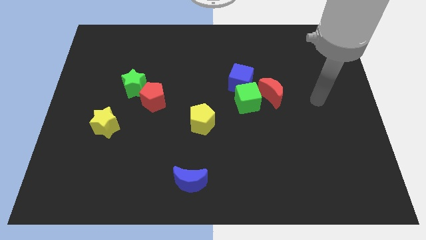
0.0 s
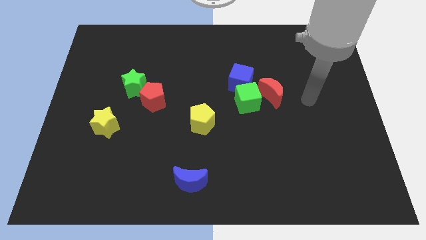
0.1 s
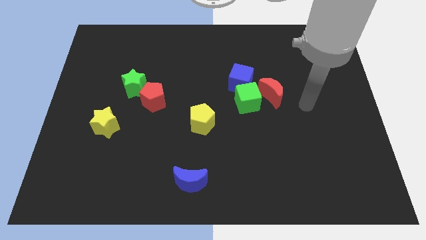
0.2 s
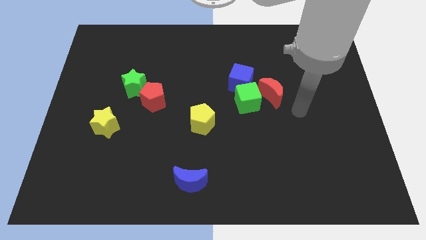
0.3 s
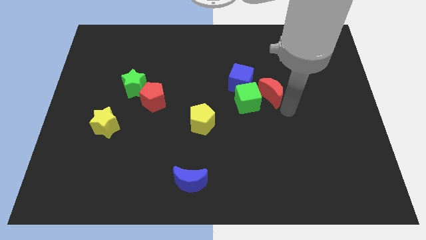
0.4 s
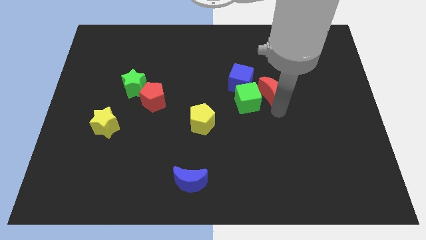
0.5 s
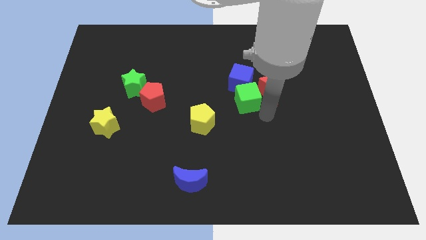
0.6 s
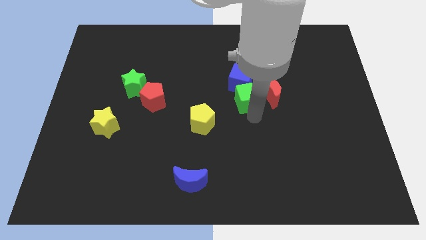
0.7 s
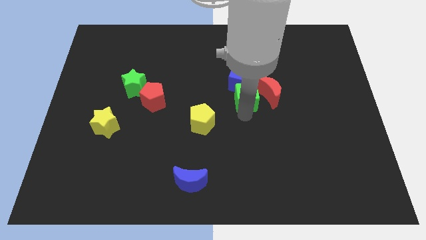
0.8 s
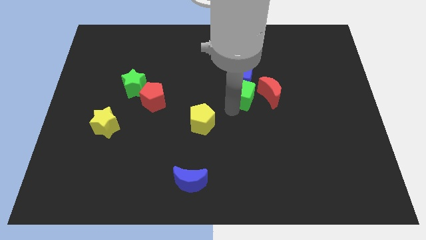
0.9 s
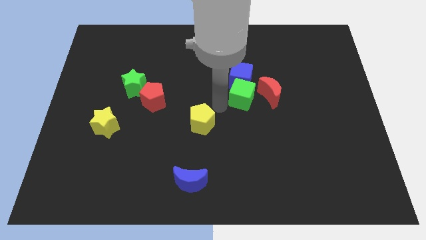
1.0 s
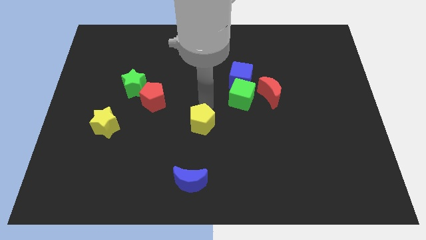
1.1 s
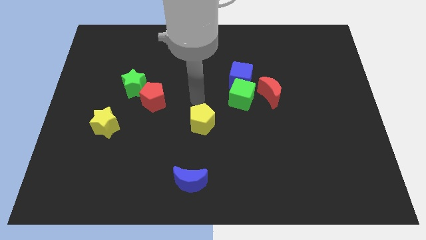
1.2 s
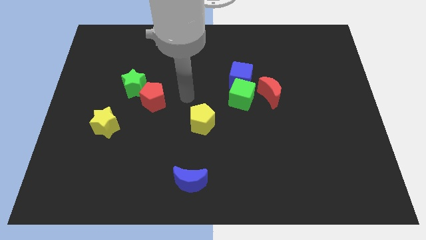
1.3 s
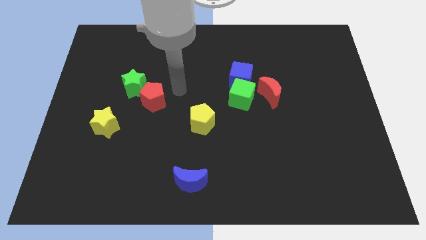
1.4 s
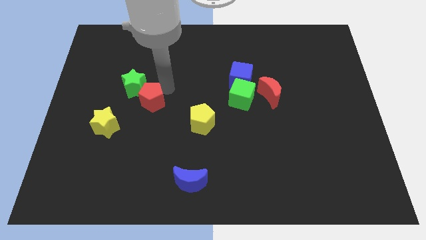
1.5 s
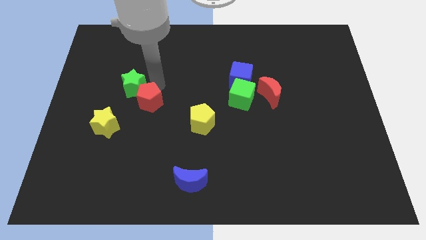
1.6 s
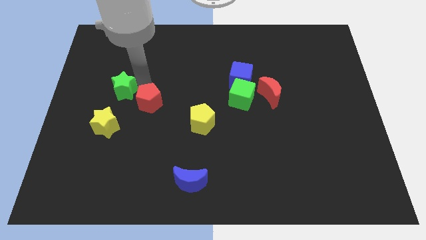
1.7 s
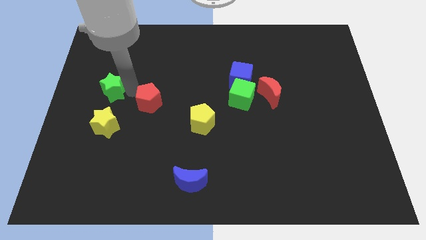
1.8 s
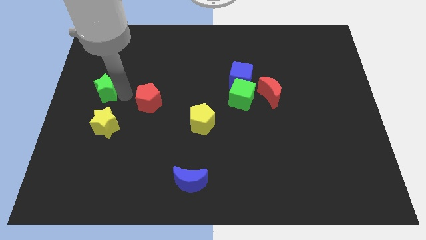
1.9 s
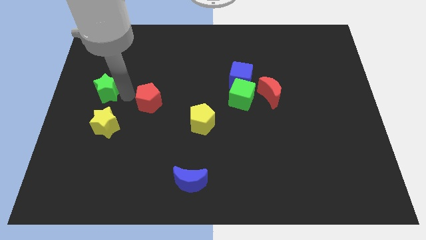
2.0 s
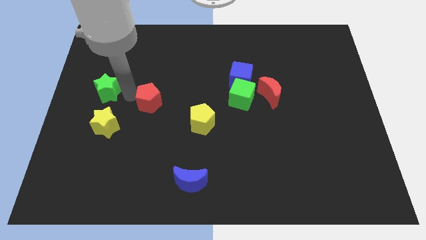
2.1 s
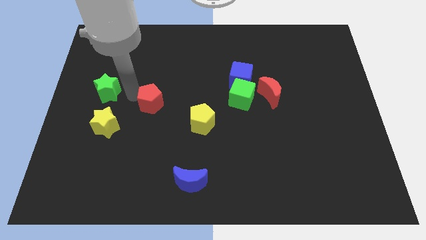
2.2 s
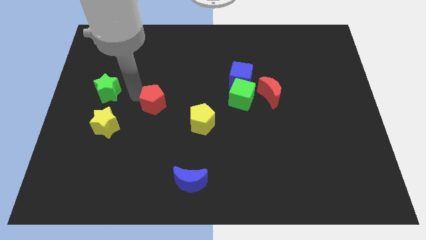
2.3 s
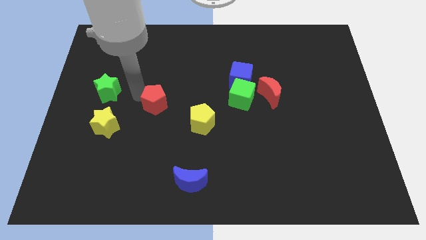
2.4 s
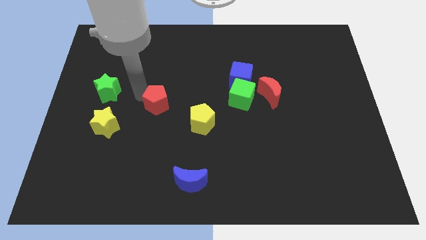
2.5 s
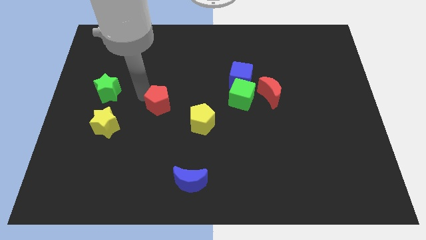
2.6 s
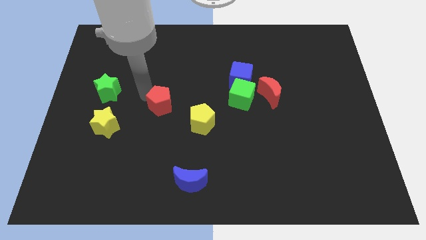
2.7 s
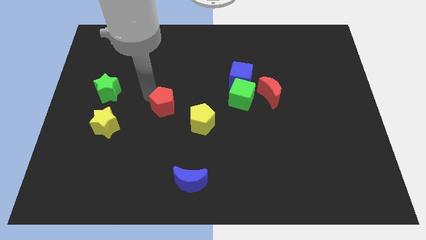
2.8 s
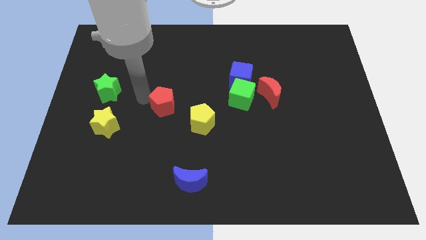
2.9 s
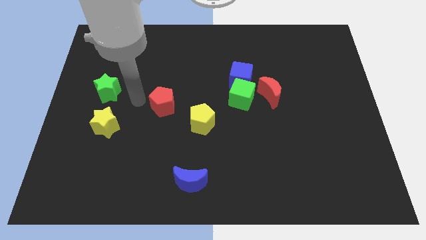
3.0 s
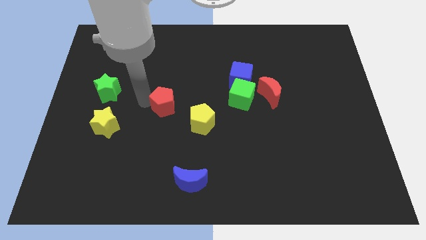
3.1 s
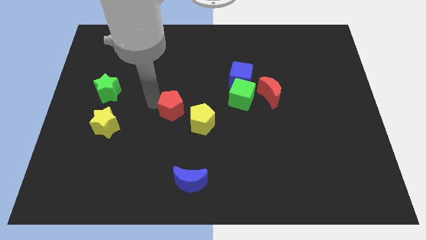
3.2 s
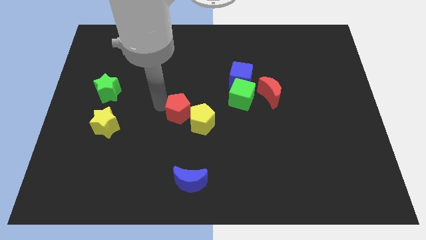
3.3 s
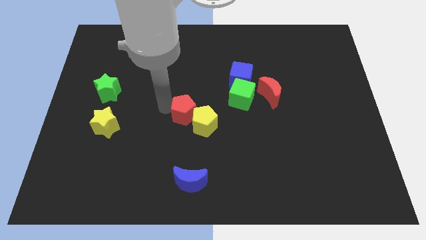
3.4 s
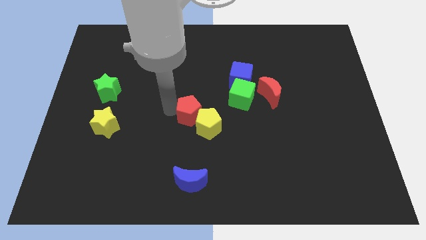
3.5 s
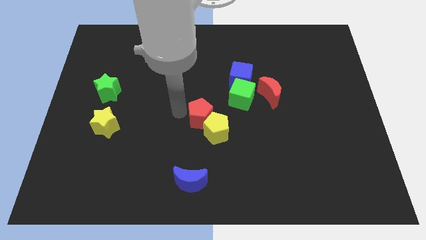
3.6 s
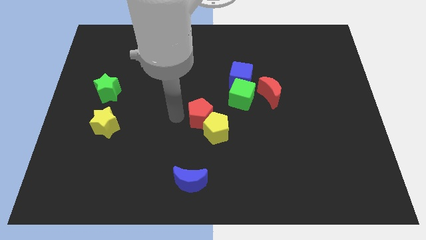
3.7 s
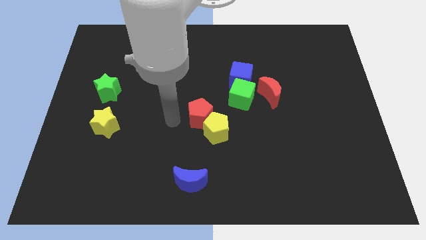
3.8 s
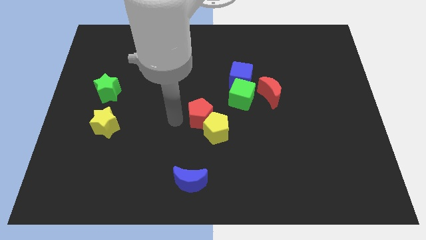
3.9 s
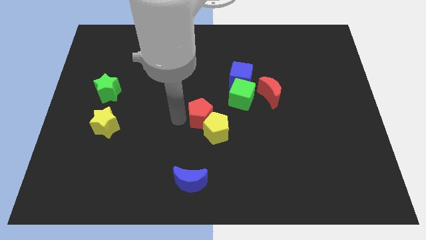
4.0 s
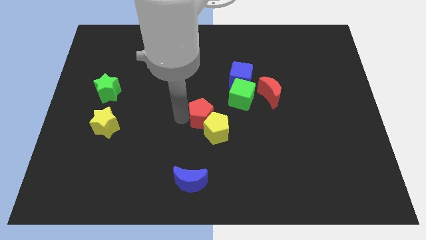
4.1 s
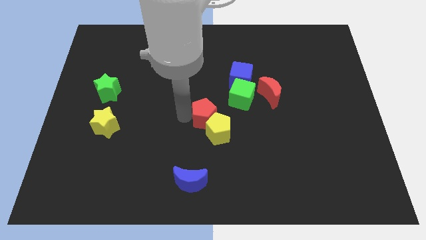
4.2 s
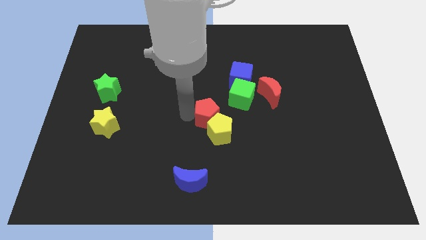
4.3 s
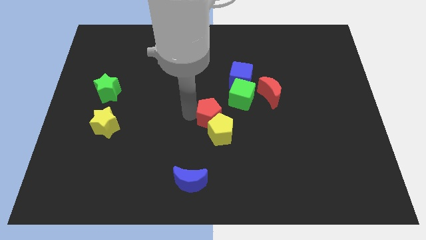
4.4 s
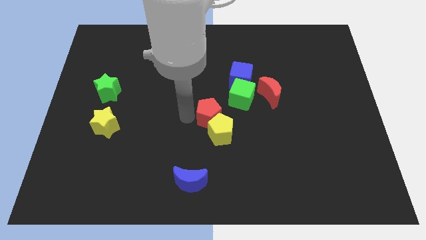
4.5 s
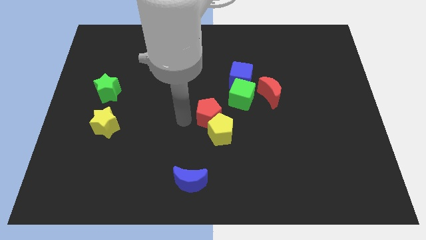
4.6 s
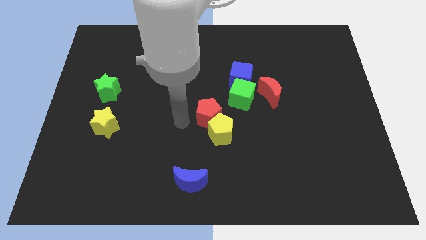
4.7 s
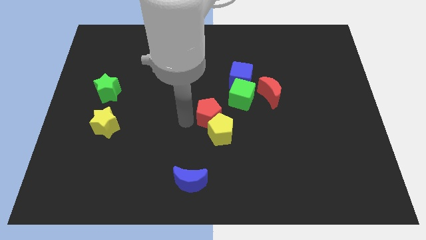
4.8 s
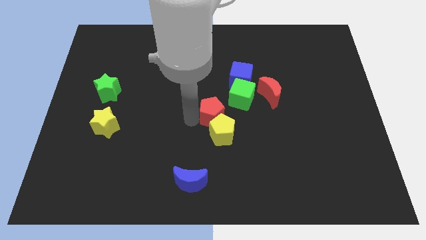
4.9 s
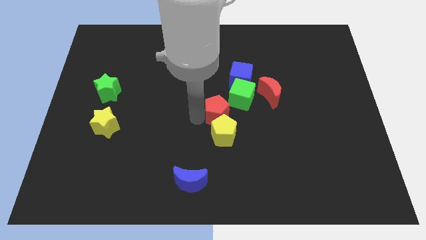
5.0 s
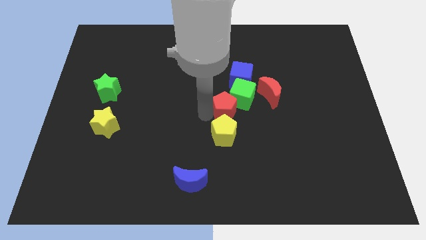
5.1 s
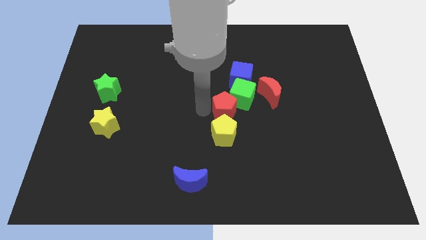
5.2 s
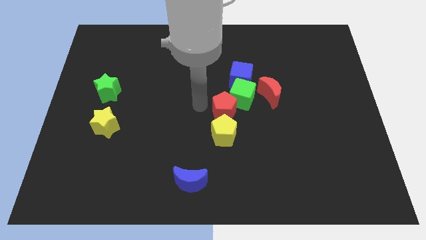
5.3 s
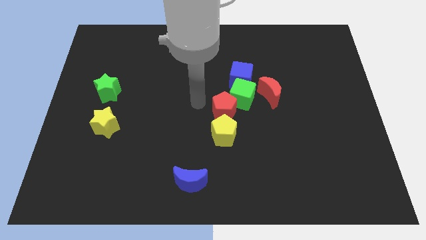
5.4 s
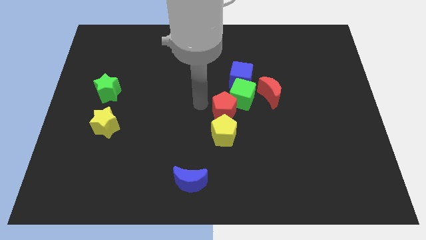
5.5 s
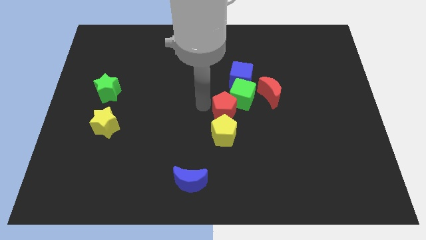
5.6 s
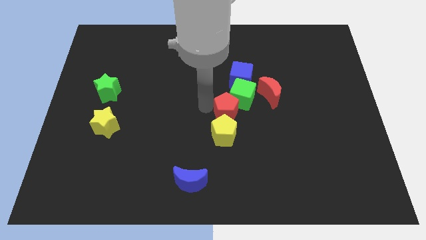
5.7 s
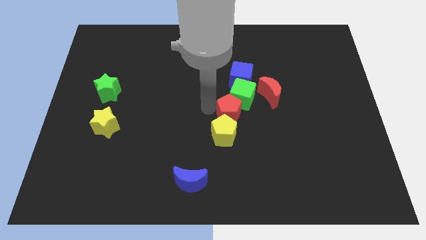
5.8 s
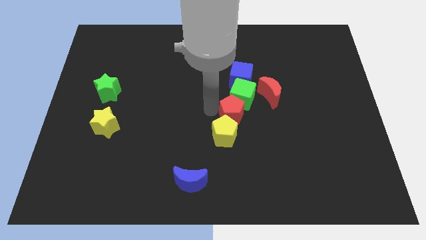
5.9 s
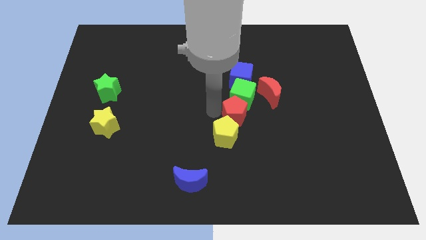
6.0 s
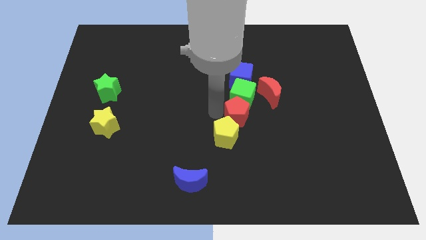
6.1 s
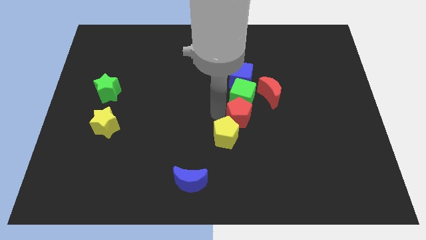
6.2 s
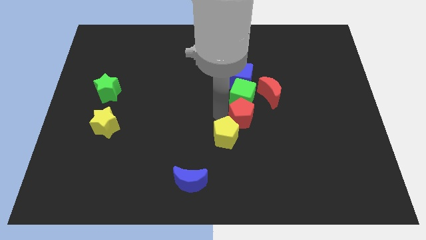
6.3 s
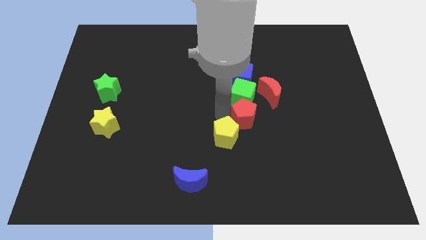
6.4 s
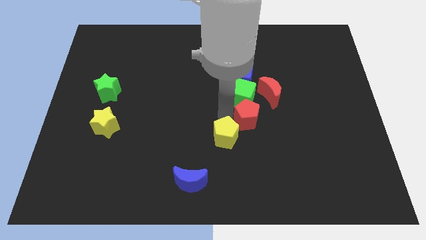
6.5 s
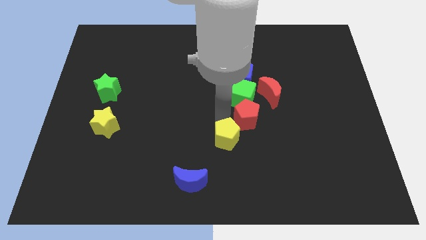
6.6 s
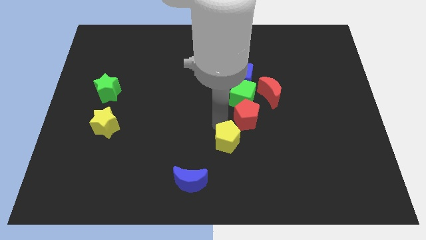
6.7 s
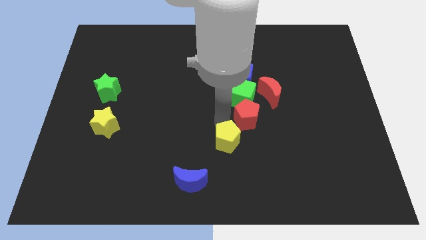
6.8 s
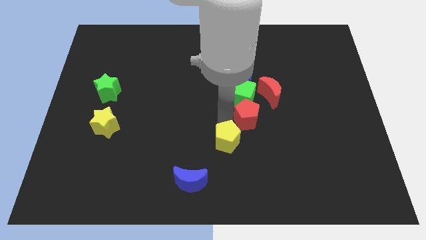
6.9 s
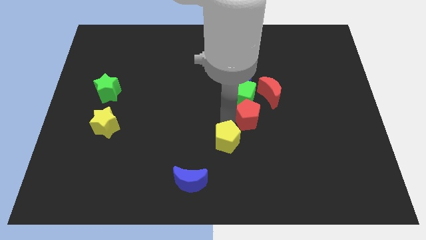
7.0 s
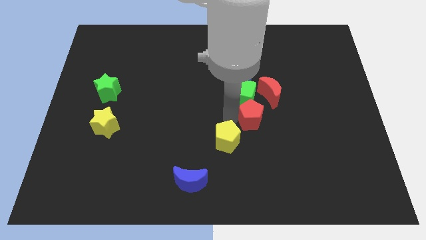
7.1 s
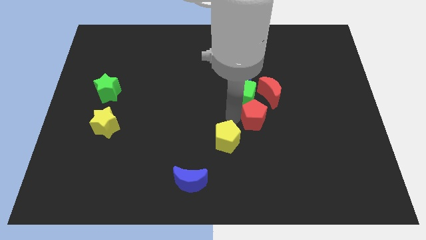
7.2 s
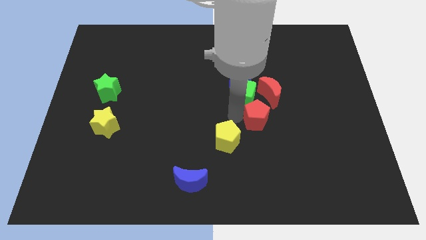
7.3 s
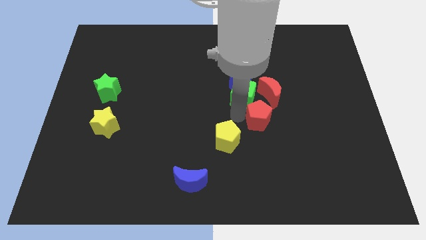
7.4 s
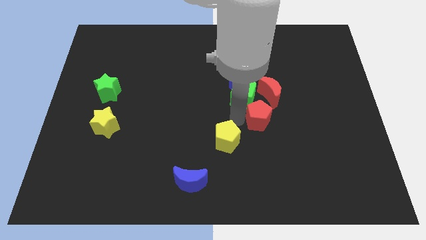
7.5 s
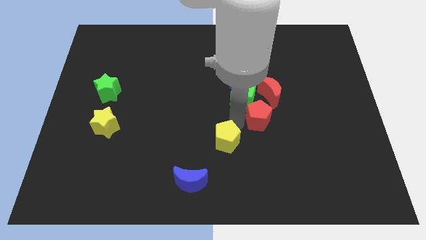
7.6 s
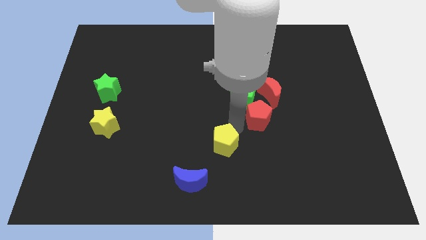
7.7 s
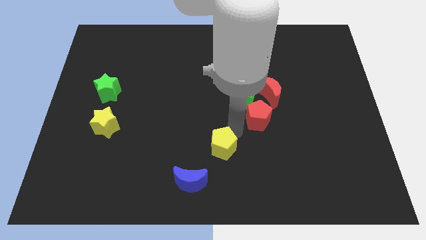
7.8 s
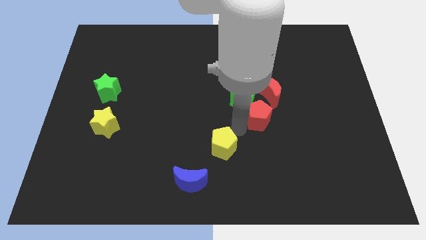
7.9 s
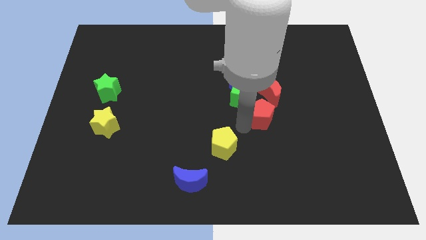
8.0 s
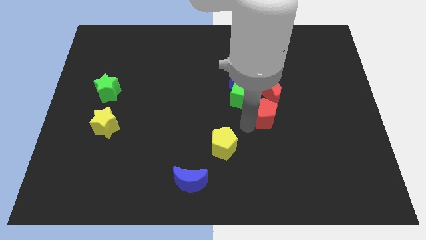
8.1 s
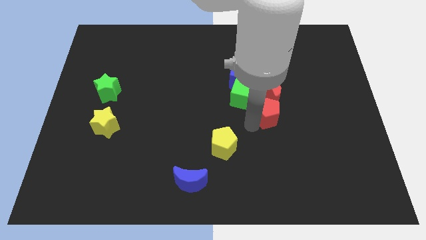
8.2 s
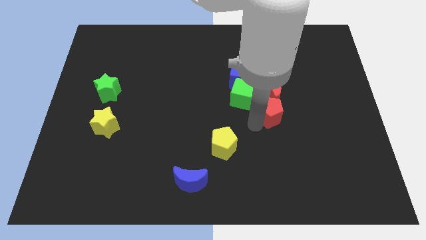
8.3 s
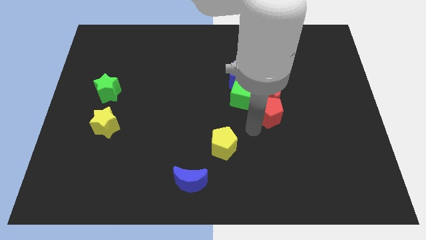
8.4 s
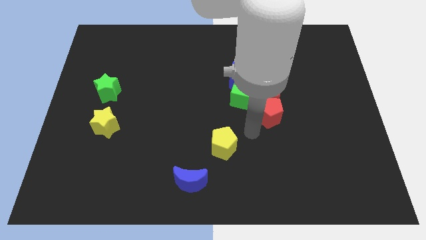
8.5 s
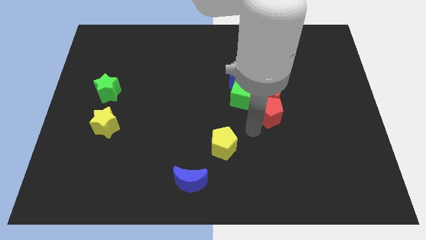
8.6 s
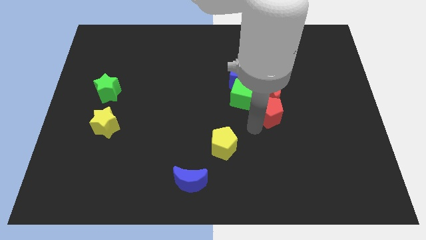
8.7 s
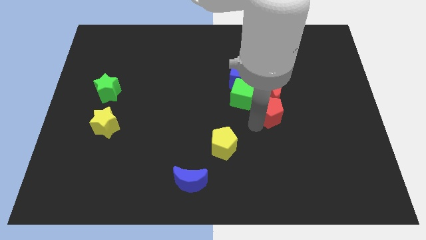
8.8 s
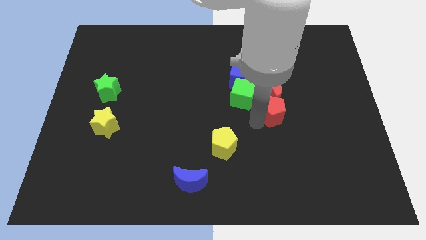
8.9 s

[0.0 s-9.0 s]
put the red pentagon to the right of the green cube
